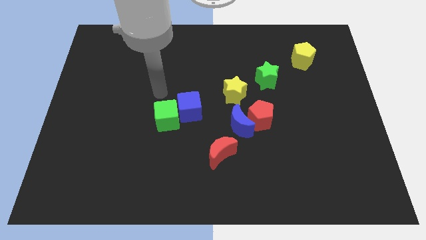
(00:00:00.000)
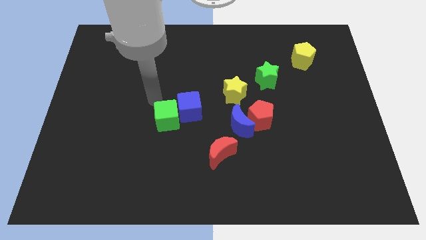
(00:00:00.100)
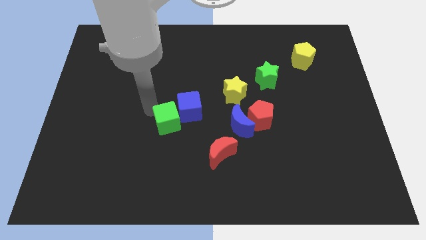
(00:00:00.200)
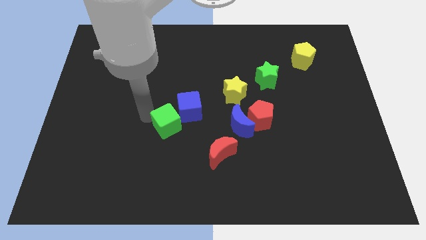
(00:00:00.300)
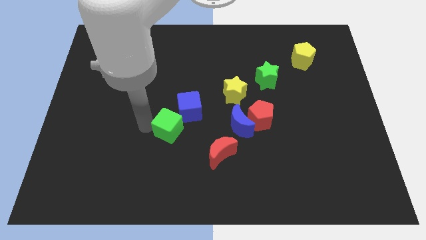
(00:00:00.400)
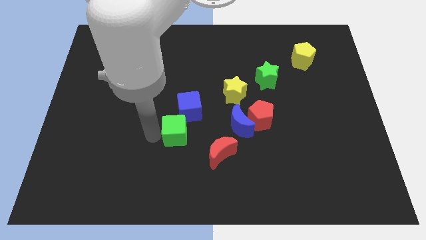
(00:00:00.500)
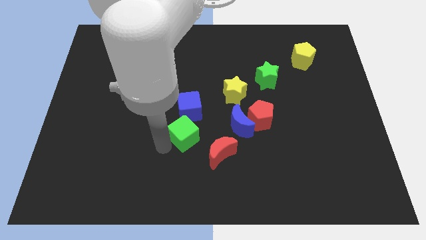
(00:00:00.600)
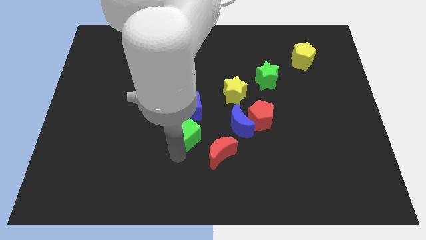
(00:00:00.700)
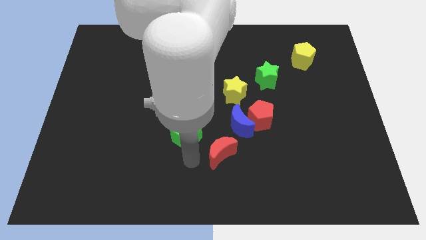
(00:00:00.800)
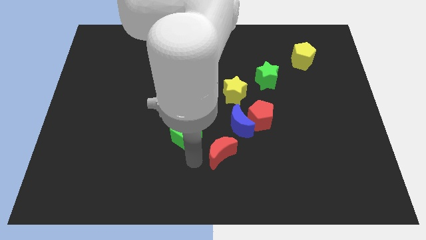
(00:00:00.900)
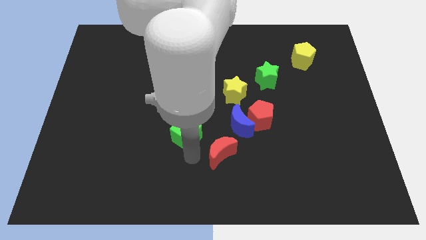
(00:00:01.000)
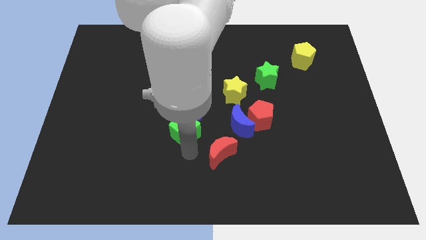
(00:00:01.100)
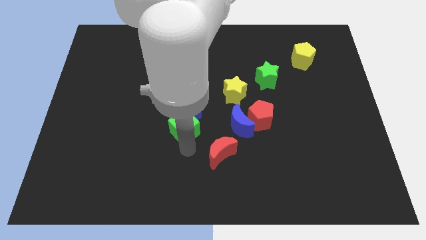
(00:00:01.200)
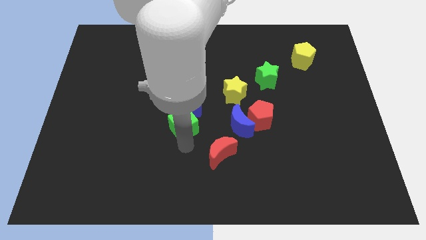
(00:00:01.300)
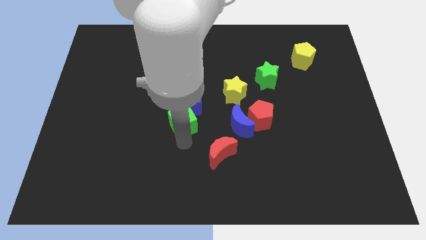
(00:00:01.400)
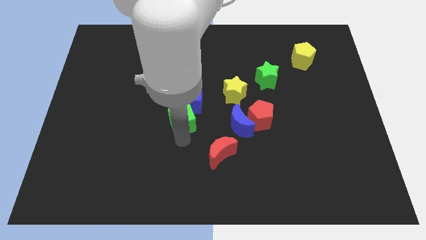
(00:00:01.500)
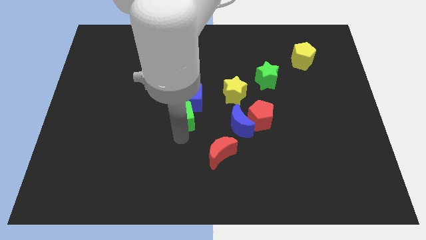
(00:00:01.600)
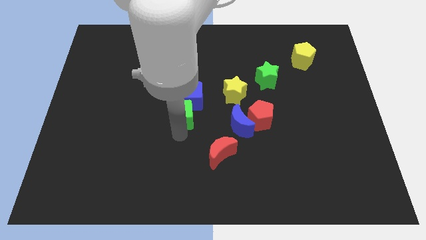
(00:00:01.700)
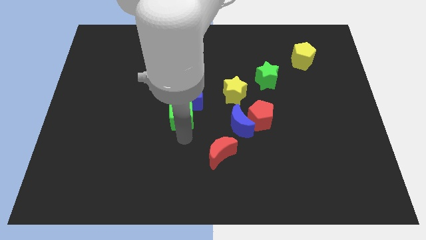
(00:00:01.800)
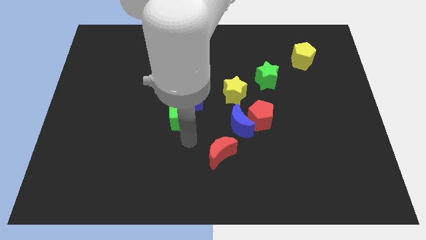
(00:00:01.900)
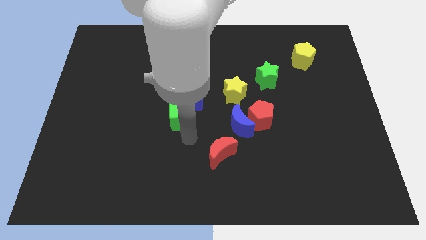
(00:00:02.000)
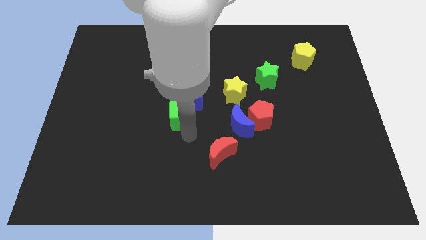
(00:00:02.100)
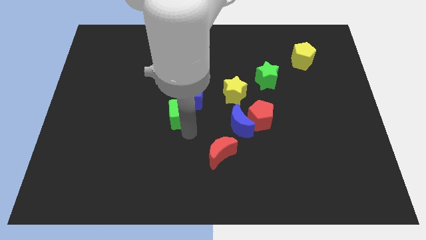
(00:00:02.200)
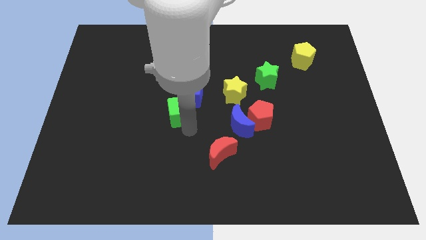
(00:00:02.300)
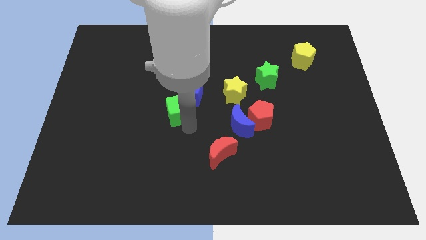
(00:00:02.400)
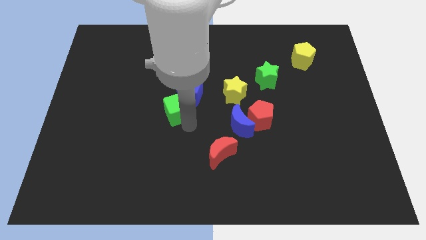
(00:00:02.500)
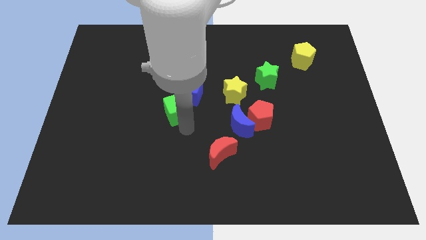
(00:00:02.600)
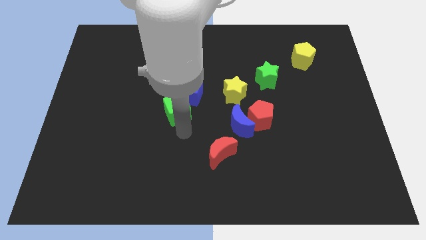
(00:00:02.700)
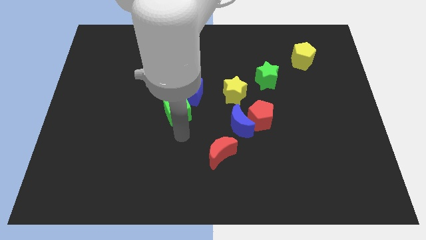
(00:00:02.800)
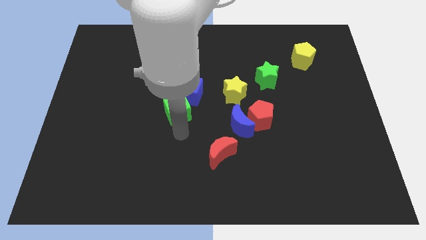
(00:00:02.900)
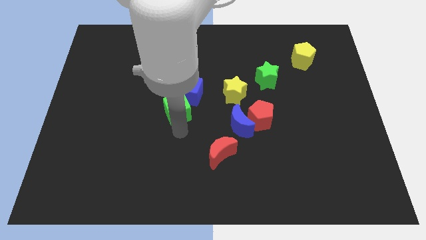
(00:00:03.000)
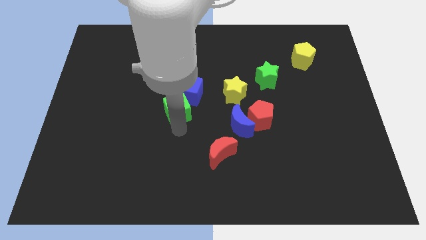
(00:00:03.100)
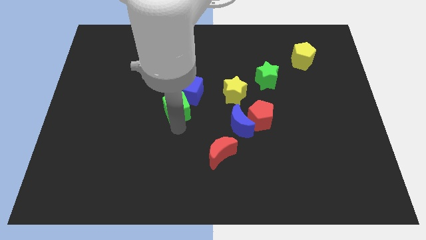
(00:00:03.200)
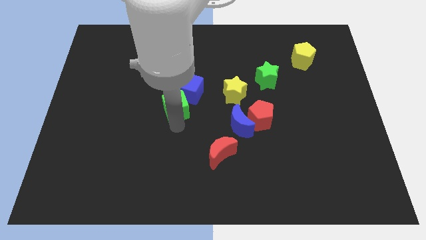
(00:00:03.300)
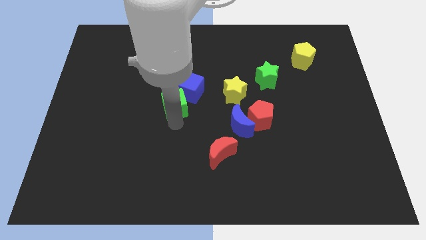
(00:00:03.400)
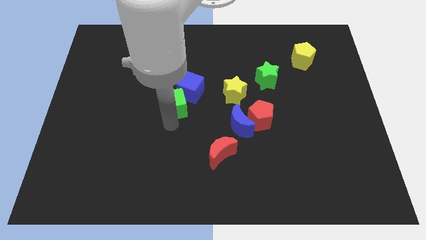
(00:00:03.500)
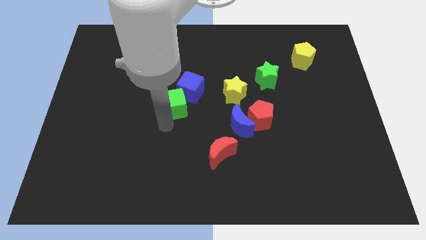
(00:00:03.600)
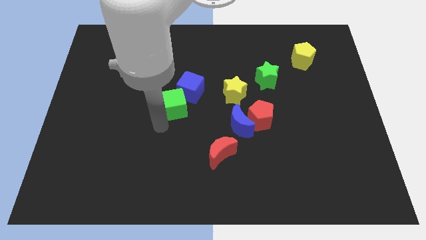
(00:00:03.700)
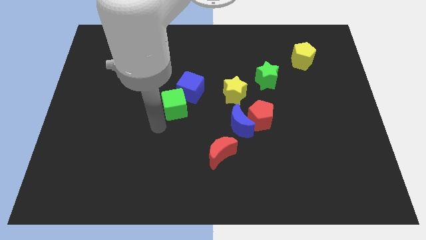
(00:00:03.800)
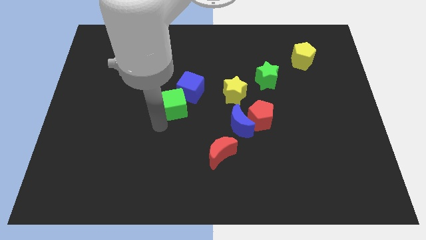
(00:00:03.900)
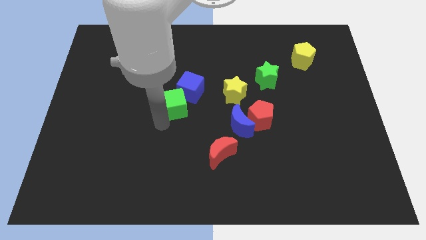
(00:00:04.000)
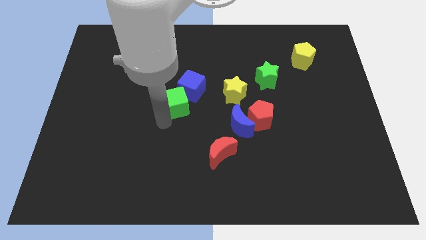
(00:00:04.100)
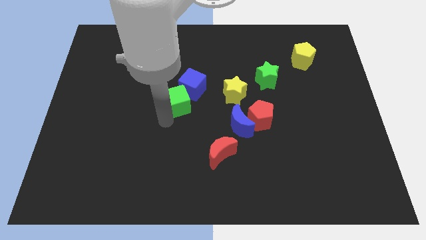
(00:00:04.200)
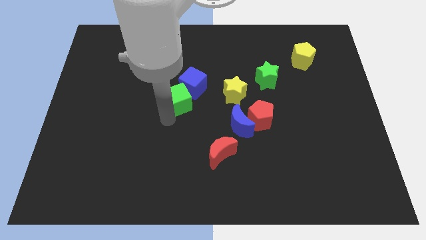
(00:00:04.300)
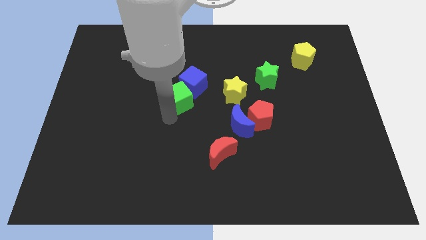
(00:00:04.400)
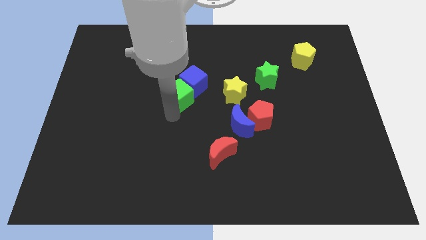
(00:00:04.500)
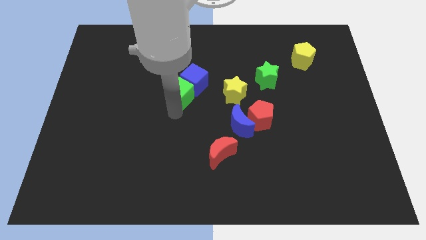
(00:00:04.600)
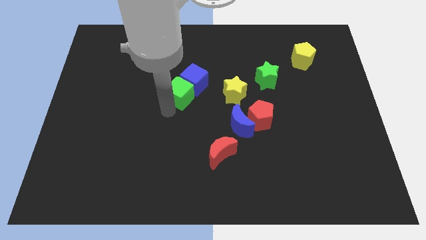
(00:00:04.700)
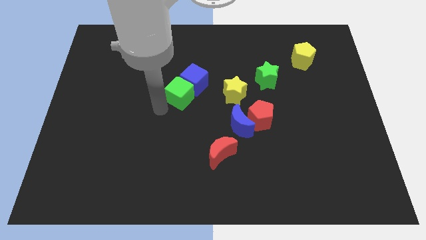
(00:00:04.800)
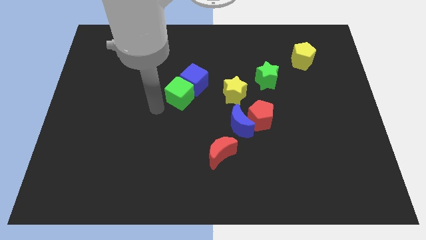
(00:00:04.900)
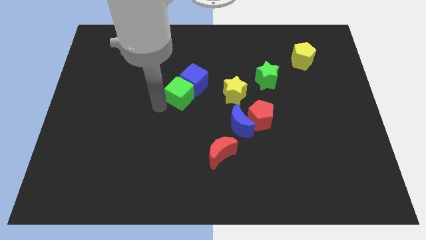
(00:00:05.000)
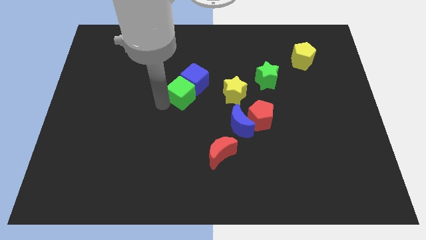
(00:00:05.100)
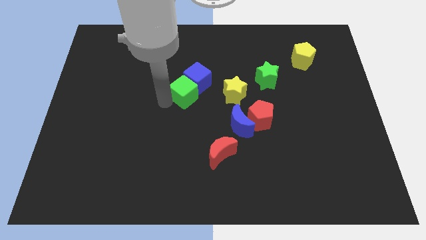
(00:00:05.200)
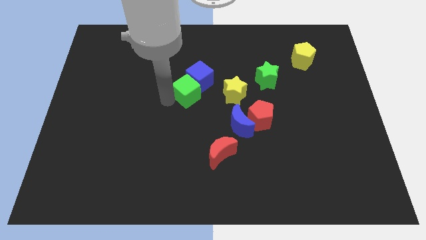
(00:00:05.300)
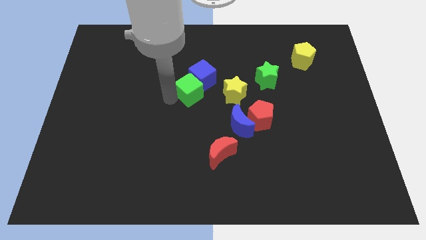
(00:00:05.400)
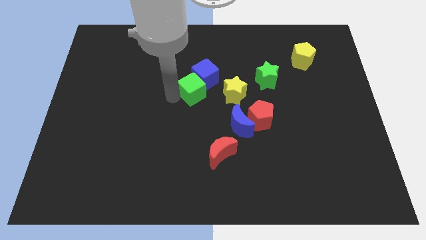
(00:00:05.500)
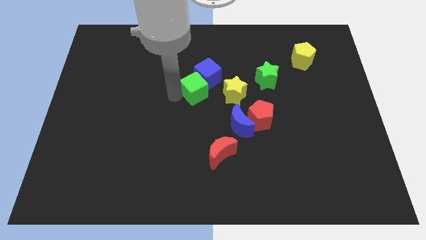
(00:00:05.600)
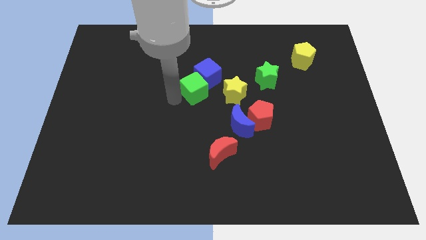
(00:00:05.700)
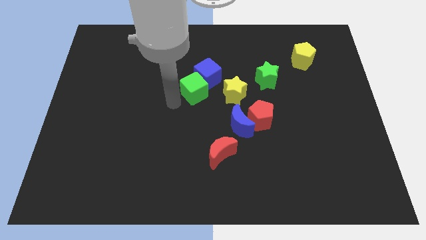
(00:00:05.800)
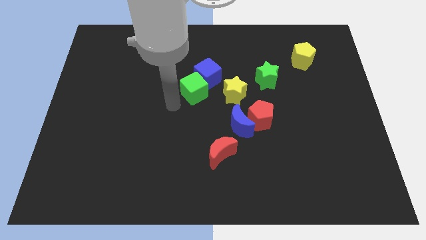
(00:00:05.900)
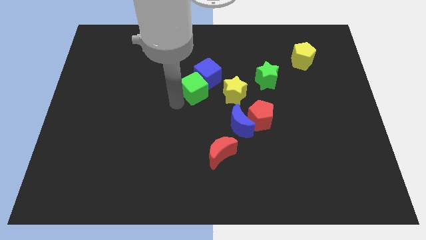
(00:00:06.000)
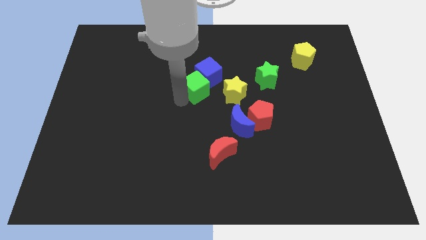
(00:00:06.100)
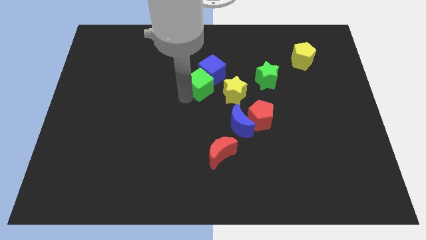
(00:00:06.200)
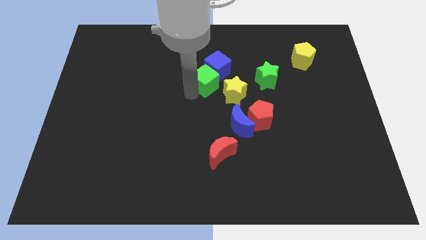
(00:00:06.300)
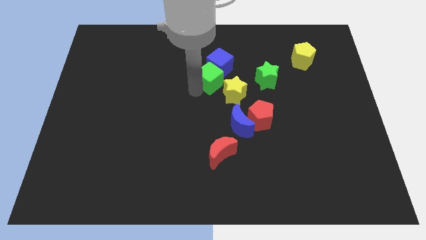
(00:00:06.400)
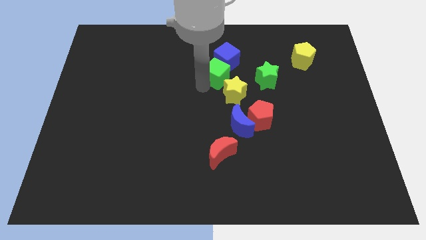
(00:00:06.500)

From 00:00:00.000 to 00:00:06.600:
move the green cube above the yellow star
